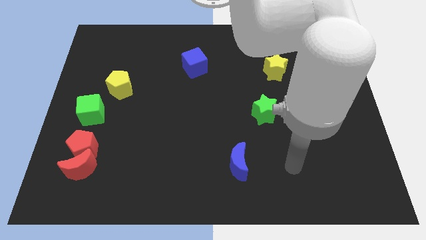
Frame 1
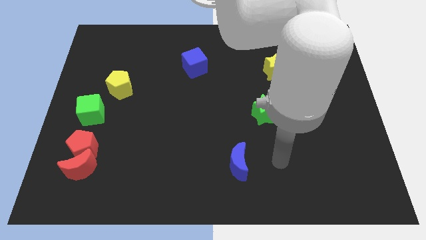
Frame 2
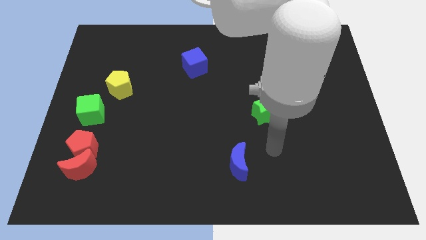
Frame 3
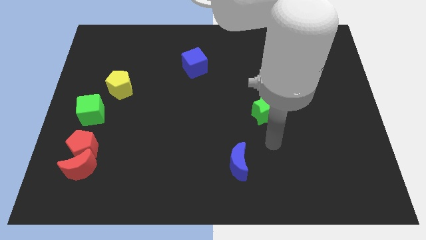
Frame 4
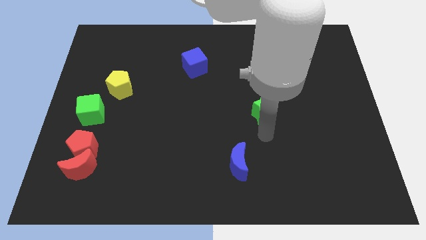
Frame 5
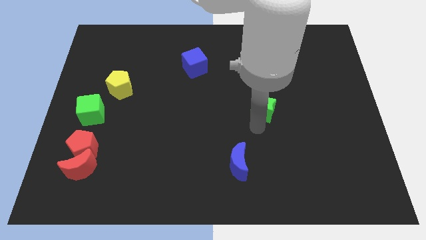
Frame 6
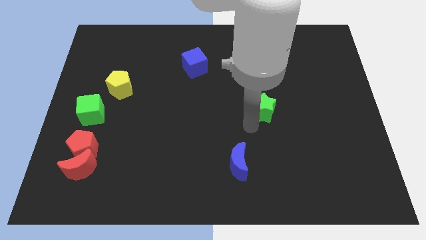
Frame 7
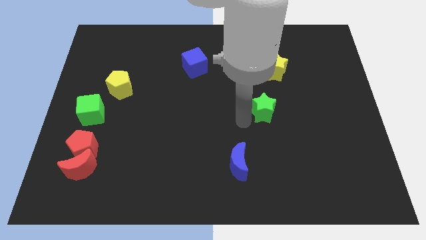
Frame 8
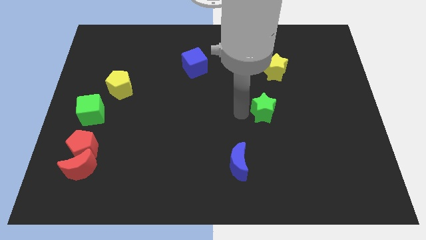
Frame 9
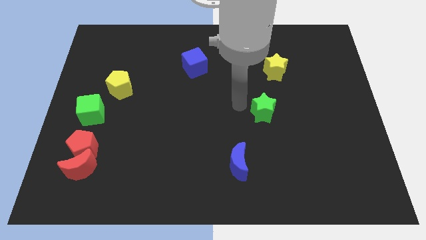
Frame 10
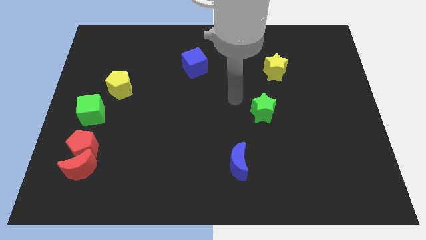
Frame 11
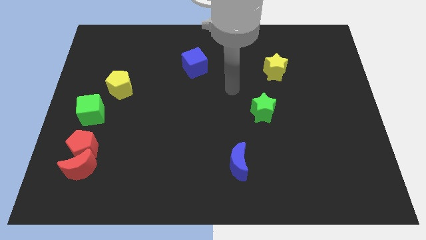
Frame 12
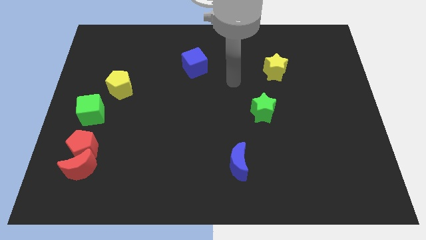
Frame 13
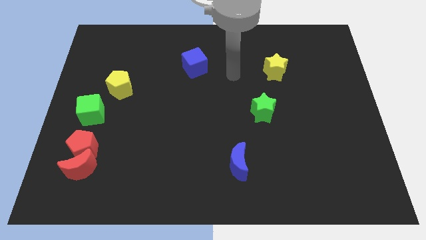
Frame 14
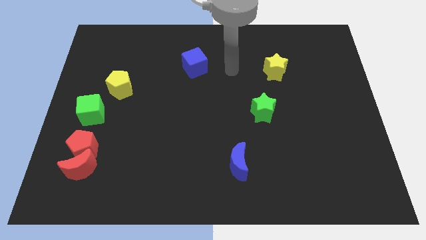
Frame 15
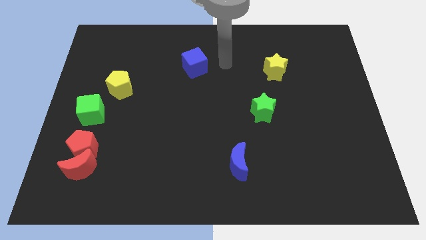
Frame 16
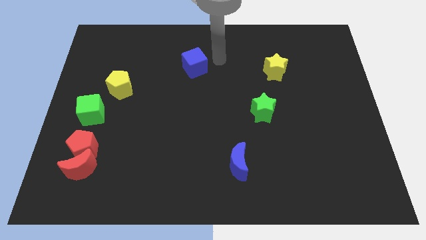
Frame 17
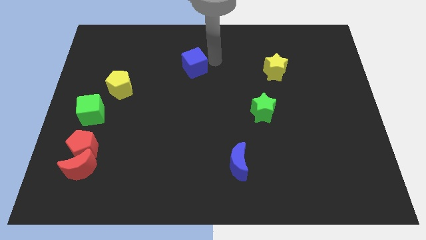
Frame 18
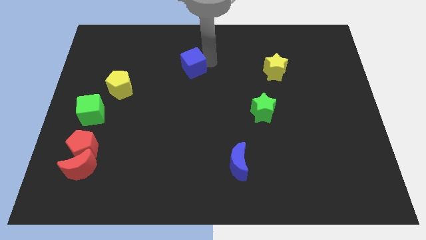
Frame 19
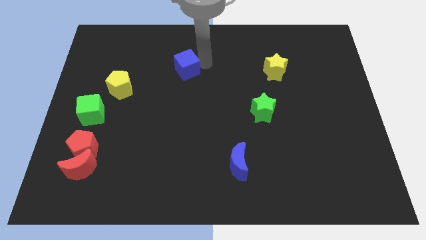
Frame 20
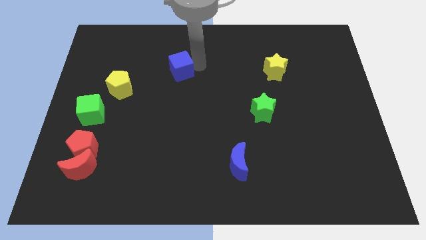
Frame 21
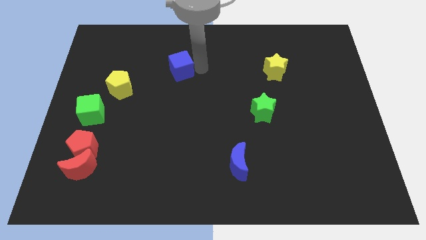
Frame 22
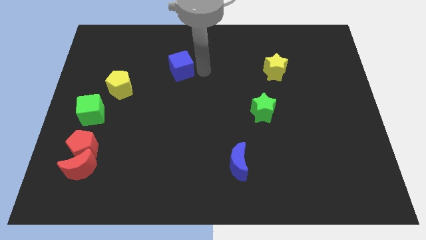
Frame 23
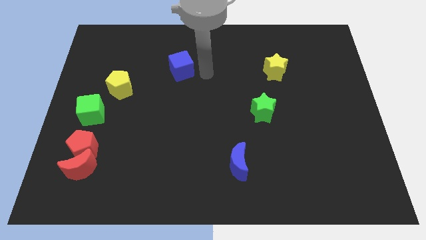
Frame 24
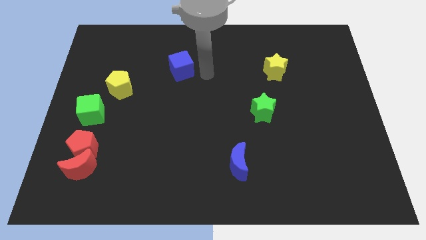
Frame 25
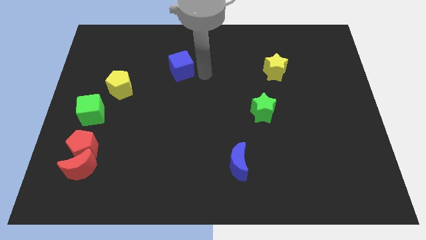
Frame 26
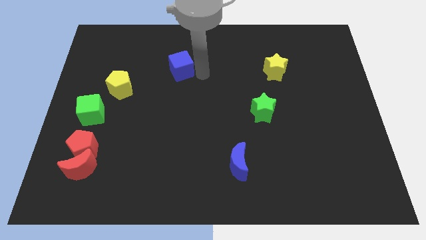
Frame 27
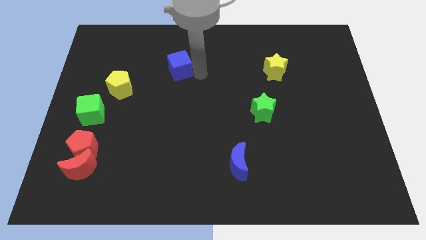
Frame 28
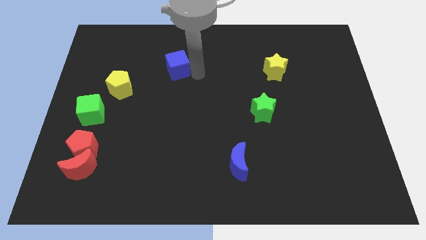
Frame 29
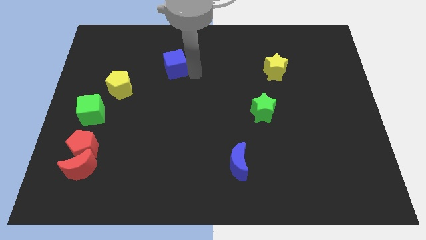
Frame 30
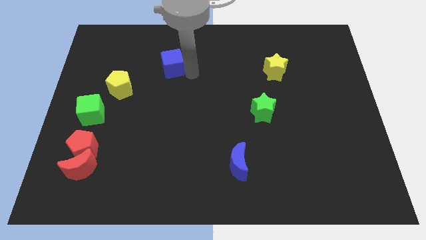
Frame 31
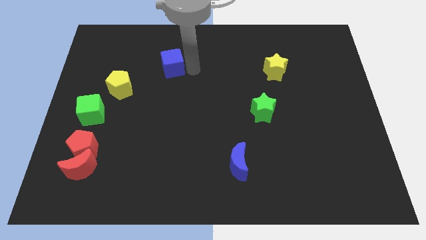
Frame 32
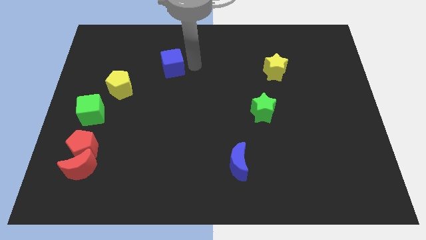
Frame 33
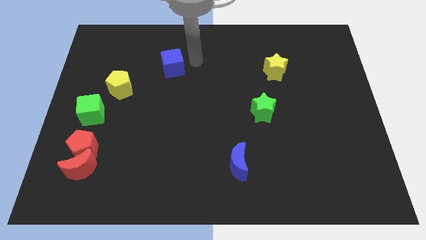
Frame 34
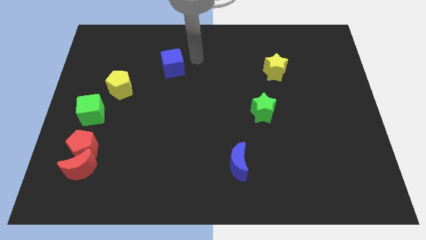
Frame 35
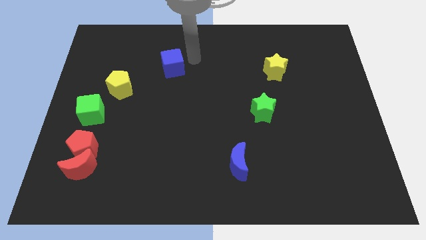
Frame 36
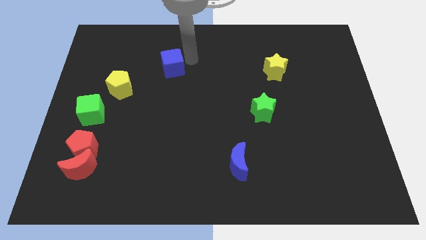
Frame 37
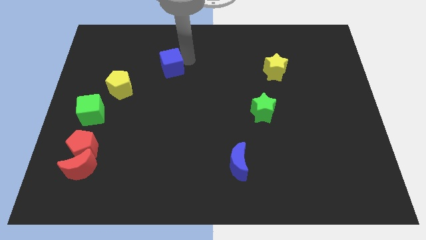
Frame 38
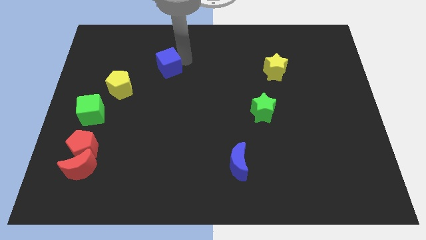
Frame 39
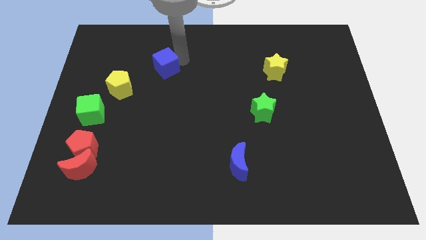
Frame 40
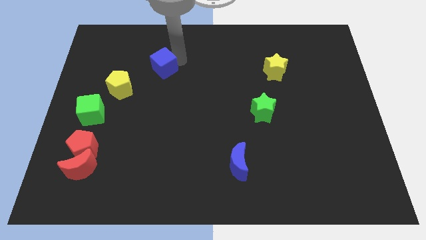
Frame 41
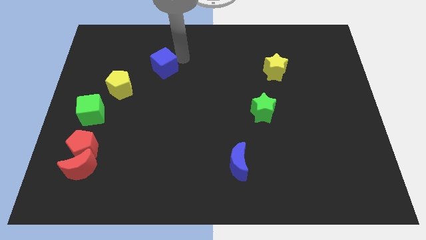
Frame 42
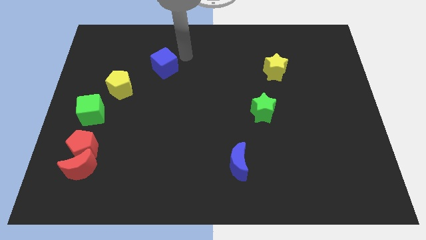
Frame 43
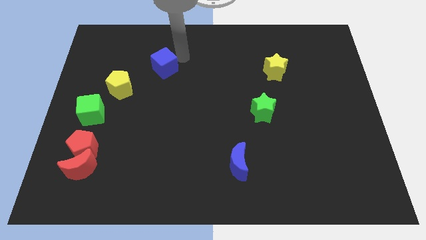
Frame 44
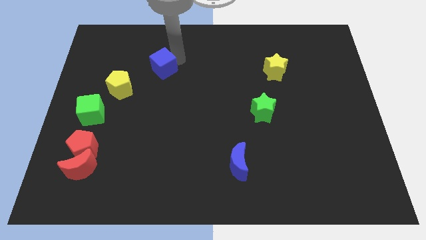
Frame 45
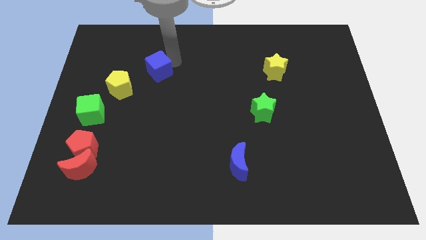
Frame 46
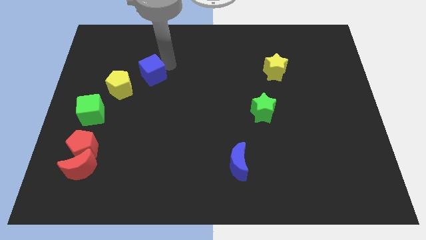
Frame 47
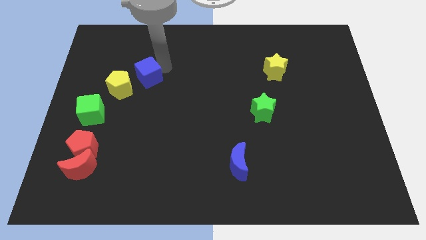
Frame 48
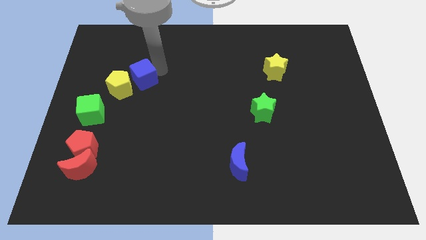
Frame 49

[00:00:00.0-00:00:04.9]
move the blue cube close to the yellow pentagon

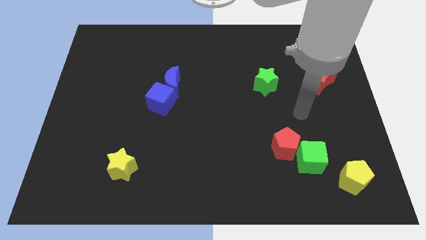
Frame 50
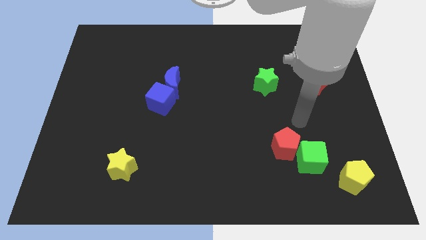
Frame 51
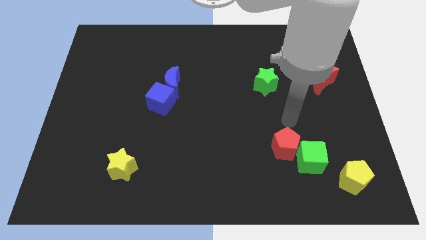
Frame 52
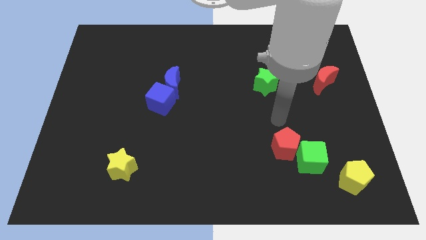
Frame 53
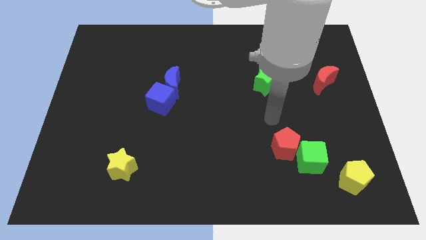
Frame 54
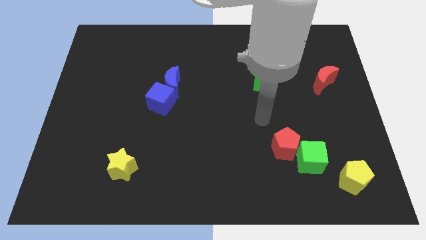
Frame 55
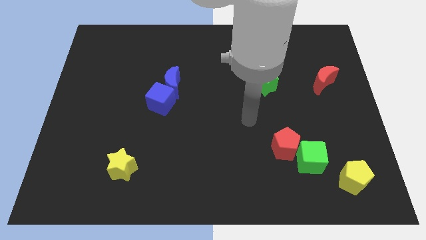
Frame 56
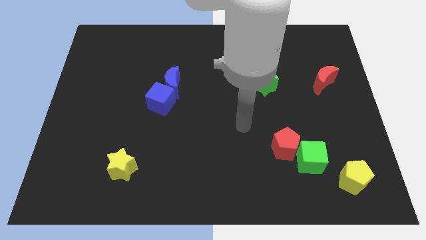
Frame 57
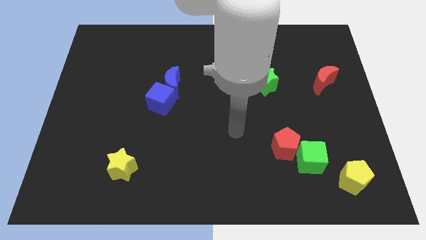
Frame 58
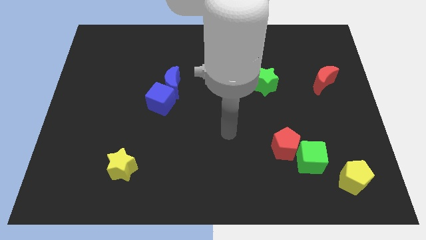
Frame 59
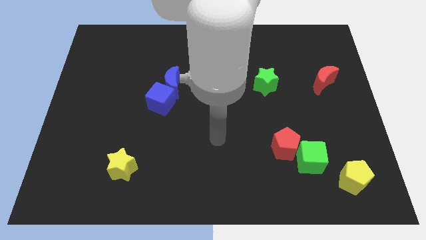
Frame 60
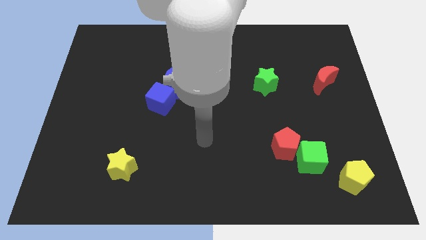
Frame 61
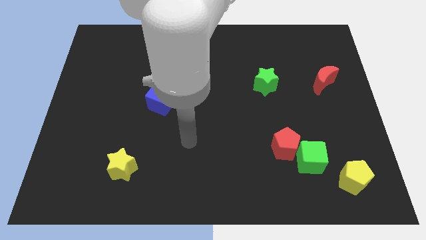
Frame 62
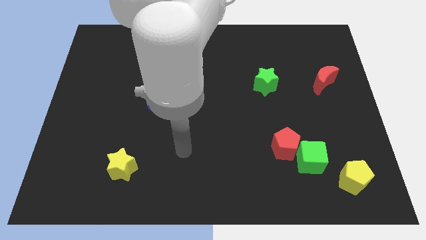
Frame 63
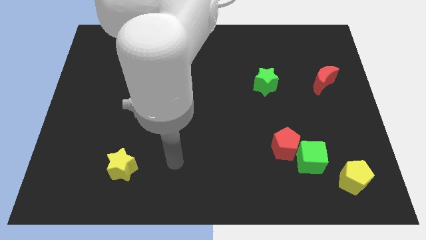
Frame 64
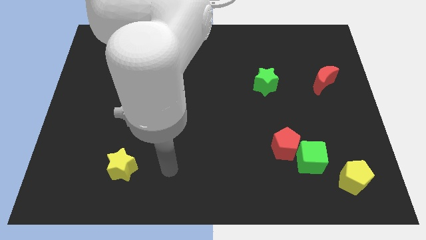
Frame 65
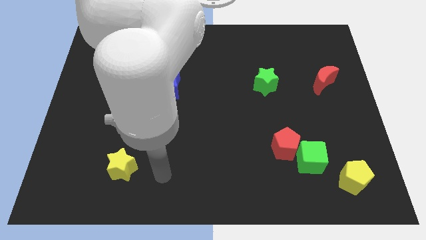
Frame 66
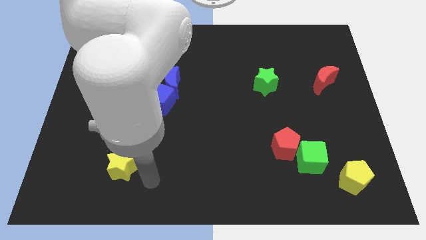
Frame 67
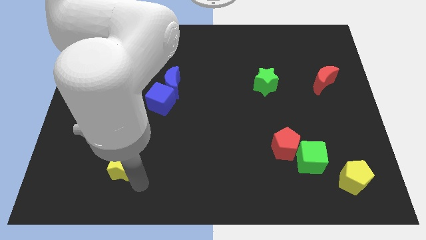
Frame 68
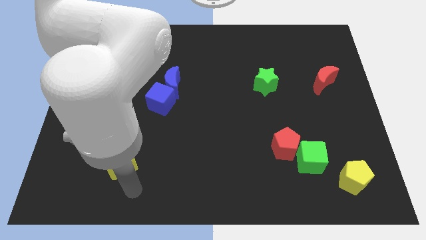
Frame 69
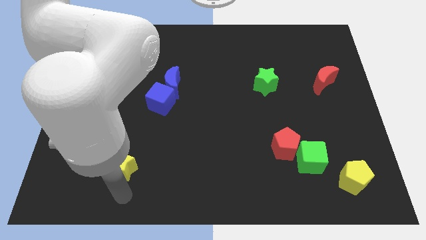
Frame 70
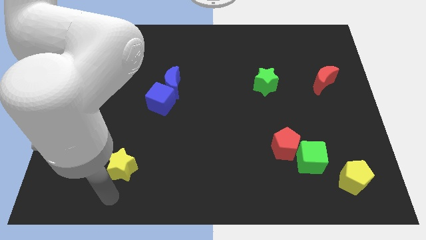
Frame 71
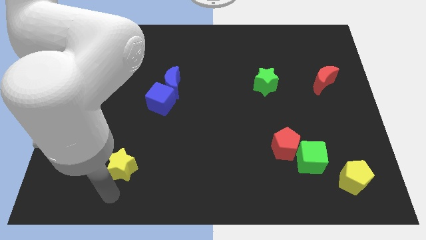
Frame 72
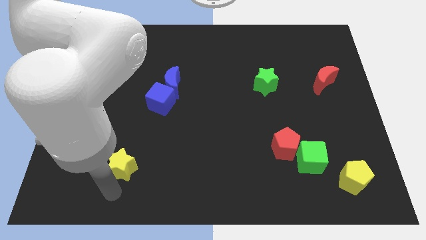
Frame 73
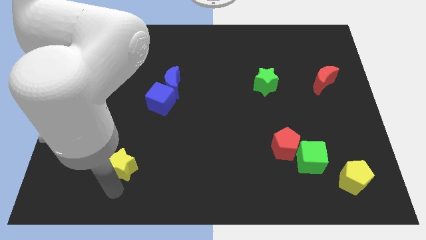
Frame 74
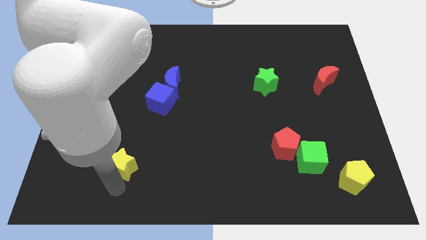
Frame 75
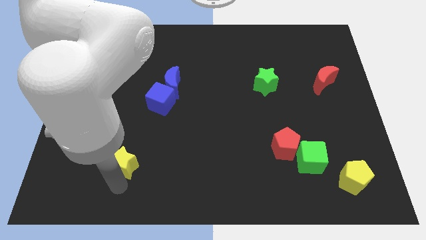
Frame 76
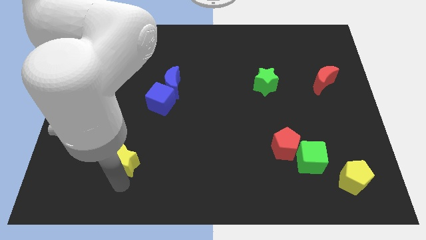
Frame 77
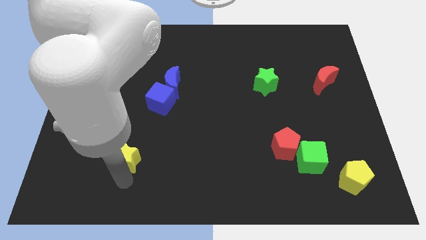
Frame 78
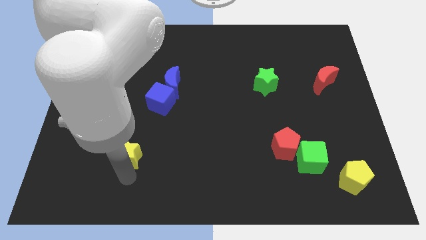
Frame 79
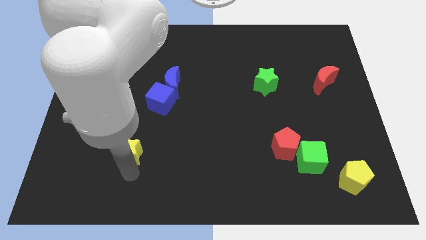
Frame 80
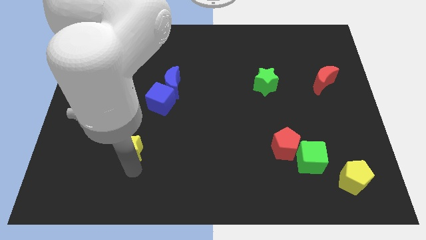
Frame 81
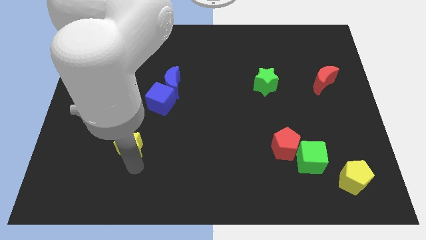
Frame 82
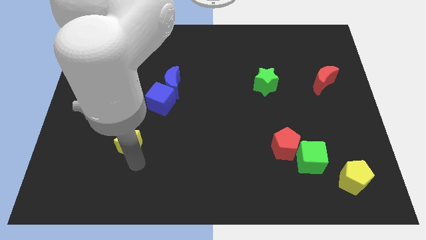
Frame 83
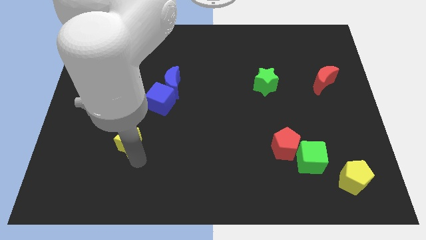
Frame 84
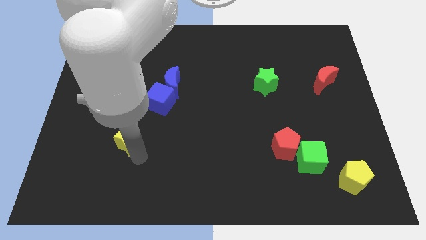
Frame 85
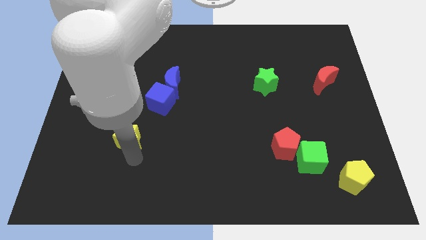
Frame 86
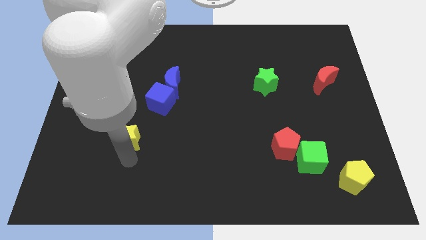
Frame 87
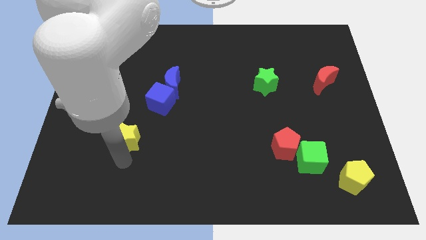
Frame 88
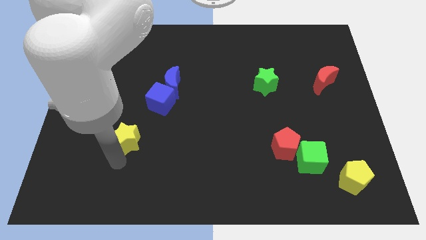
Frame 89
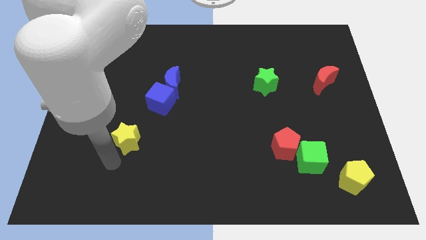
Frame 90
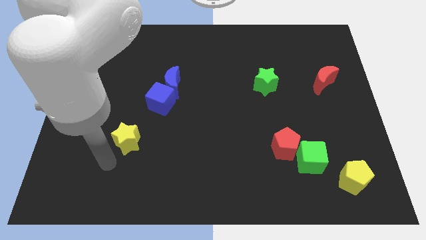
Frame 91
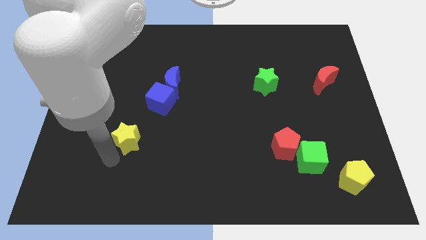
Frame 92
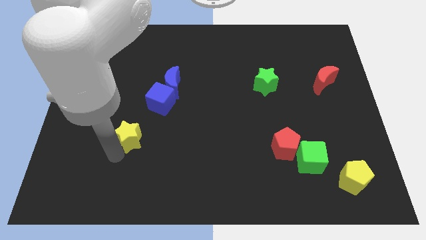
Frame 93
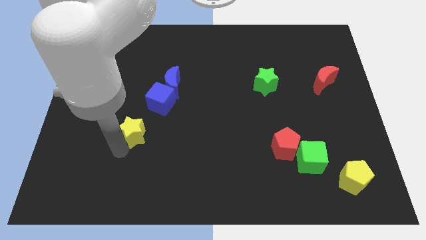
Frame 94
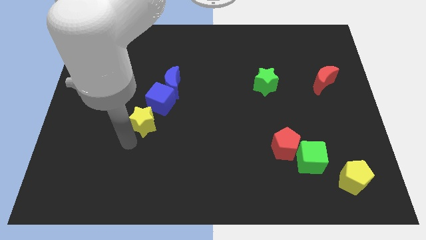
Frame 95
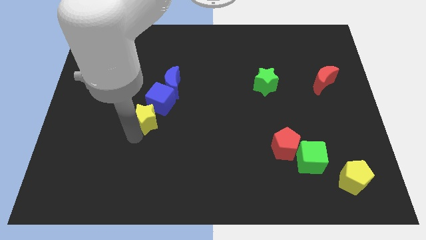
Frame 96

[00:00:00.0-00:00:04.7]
slide the yellow star towards the blue cube
